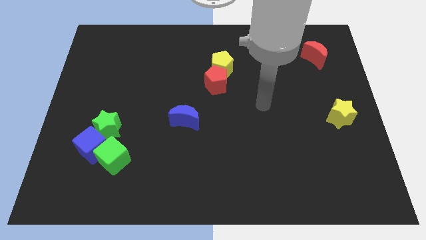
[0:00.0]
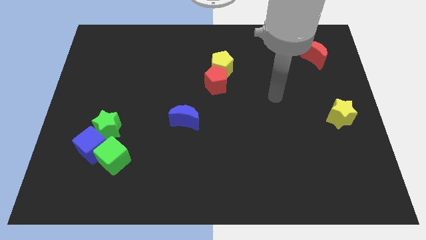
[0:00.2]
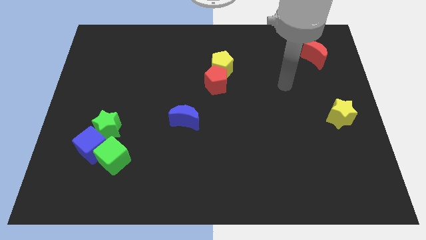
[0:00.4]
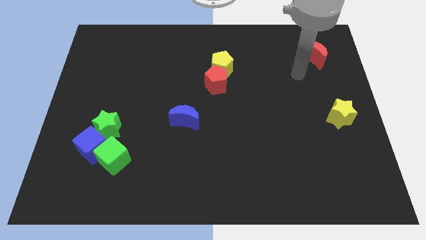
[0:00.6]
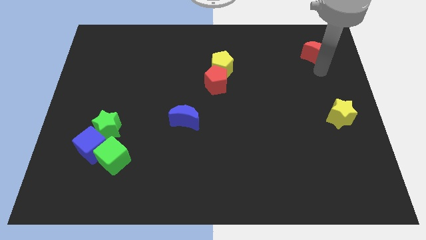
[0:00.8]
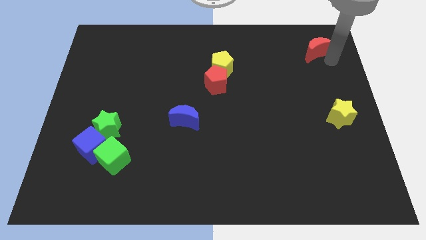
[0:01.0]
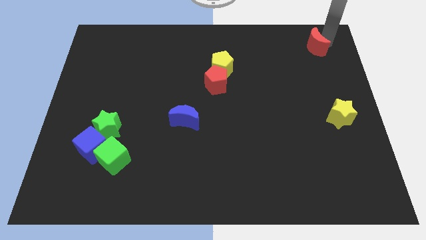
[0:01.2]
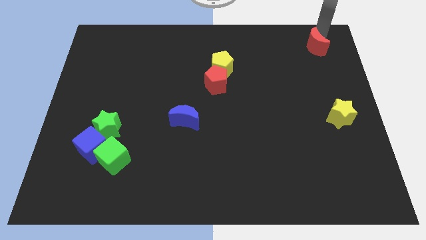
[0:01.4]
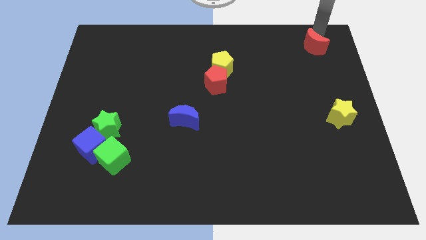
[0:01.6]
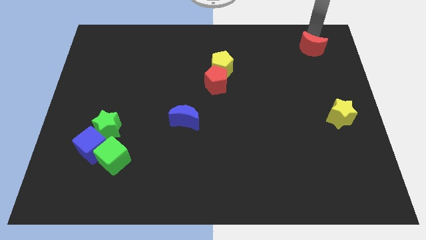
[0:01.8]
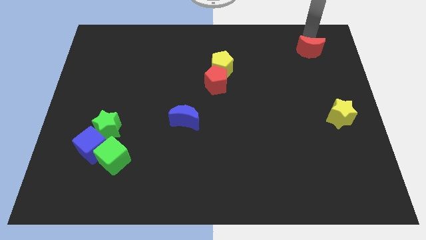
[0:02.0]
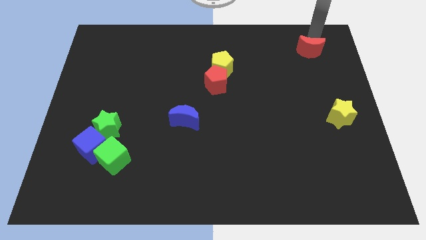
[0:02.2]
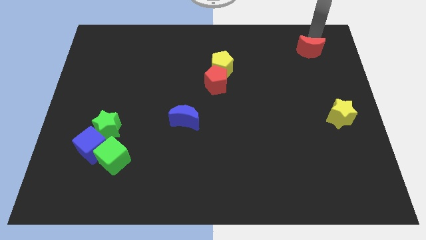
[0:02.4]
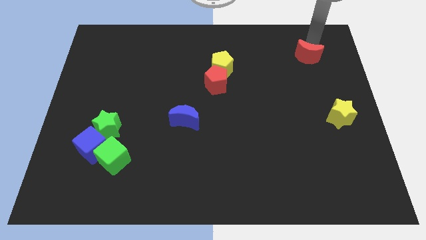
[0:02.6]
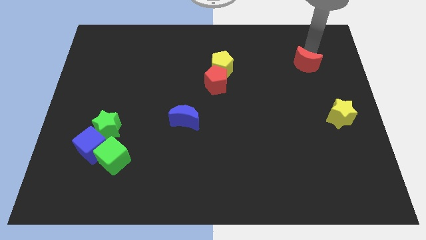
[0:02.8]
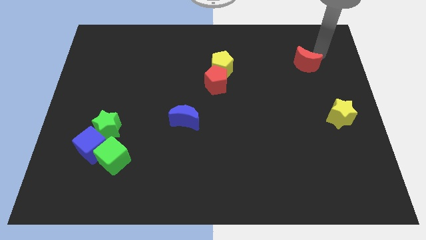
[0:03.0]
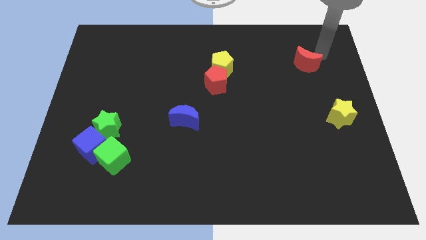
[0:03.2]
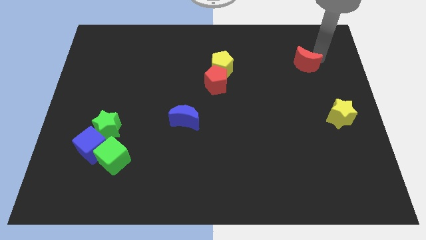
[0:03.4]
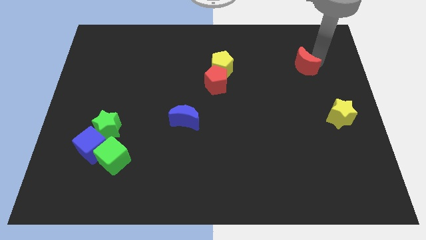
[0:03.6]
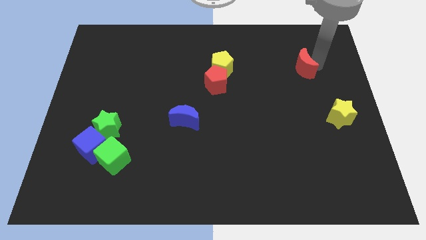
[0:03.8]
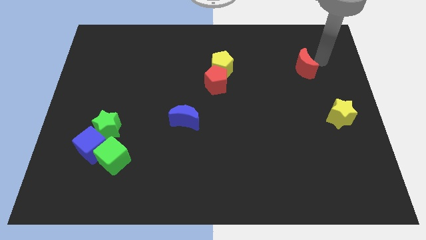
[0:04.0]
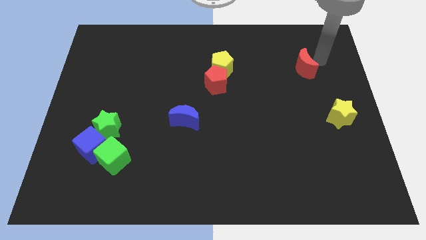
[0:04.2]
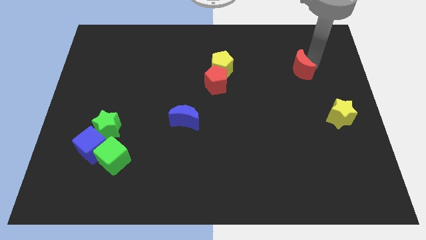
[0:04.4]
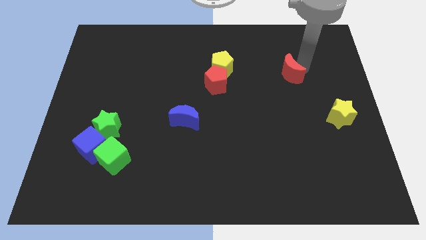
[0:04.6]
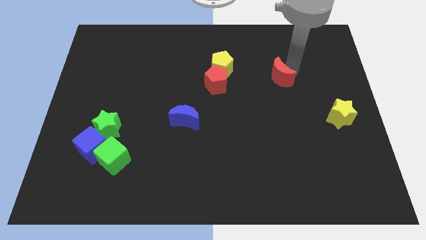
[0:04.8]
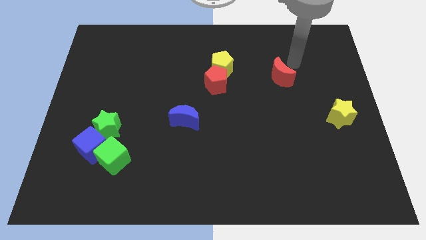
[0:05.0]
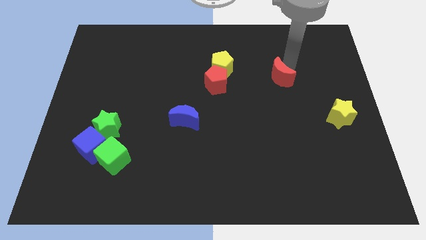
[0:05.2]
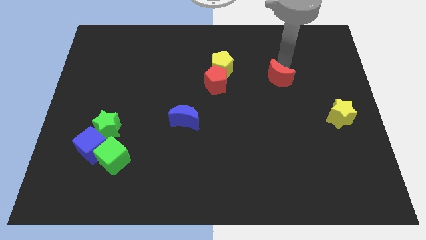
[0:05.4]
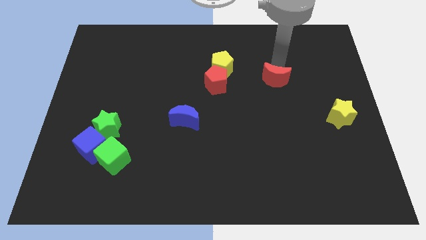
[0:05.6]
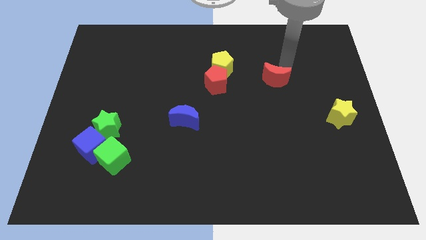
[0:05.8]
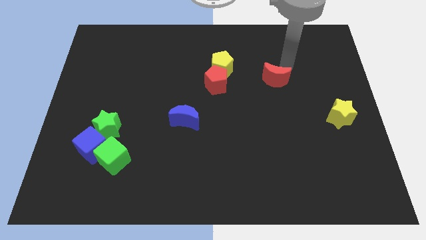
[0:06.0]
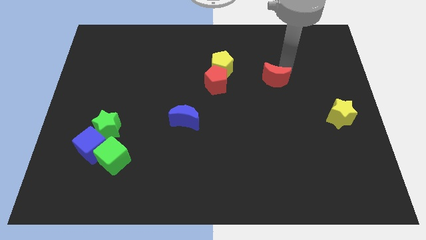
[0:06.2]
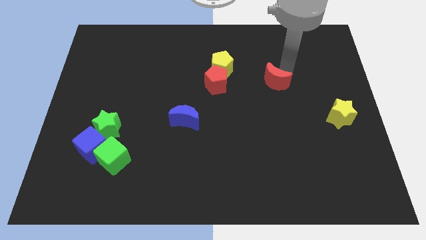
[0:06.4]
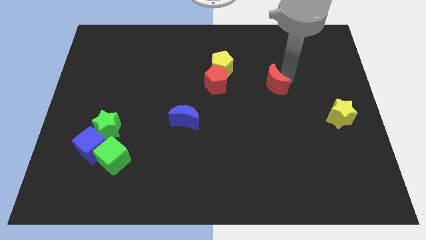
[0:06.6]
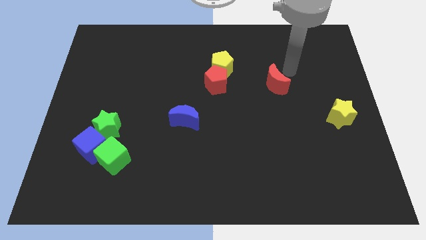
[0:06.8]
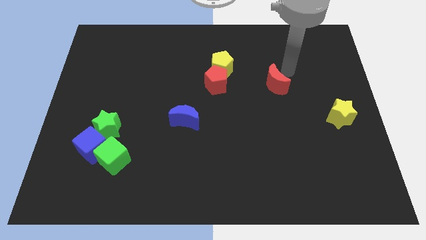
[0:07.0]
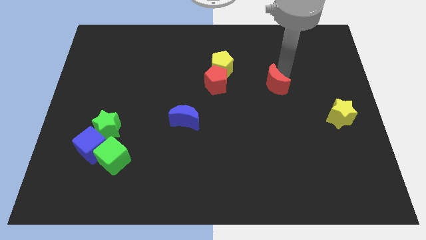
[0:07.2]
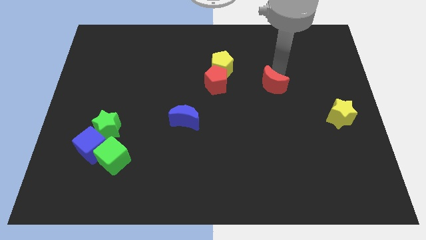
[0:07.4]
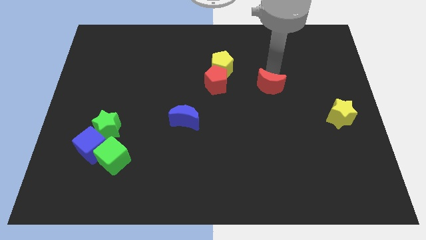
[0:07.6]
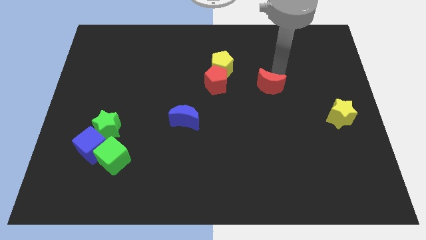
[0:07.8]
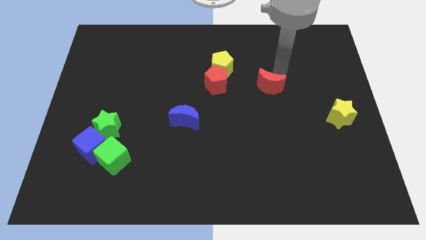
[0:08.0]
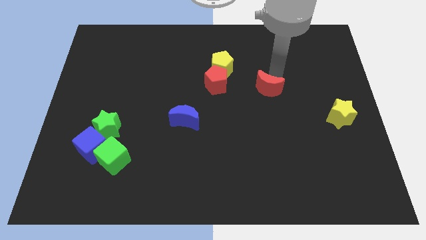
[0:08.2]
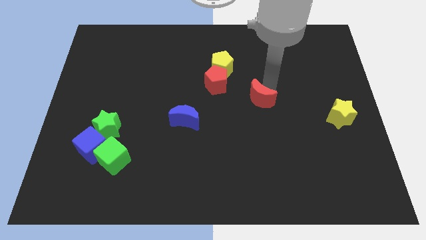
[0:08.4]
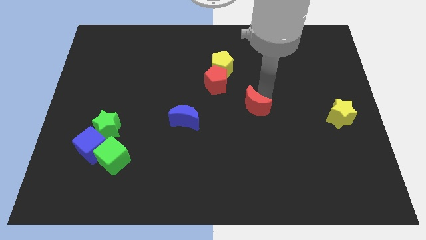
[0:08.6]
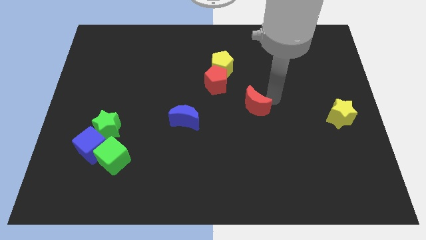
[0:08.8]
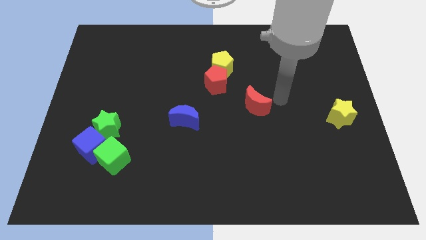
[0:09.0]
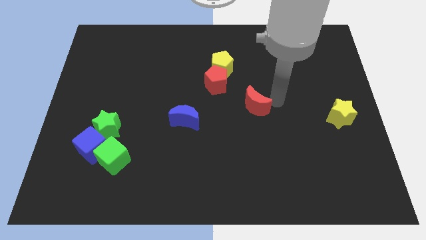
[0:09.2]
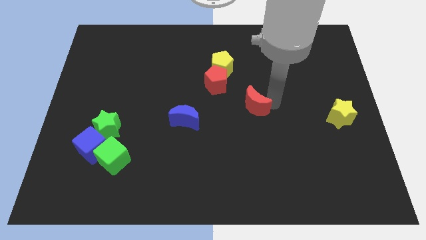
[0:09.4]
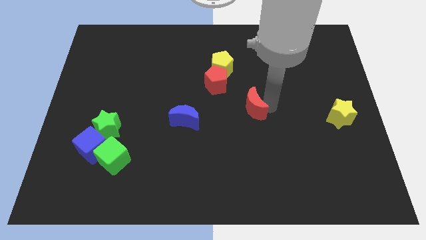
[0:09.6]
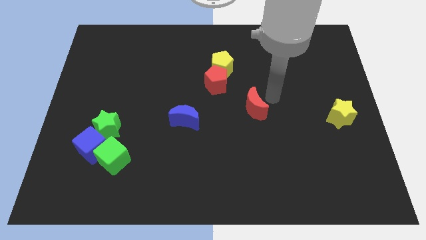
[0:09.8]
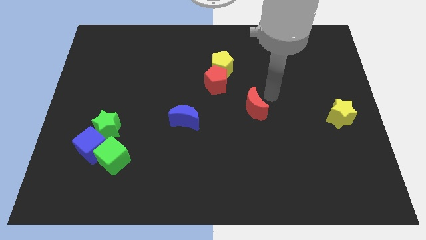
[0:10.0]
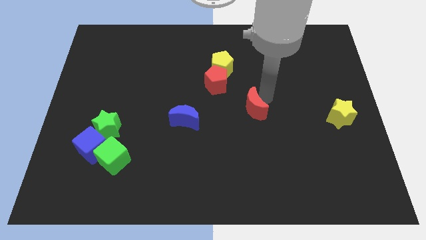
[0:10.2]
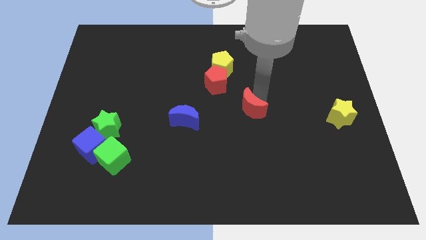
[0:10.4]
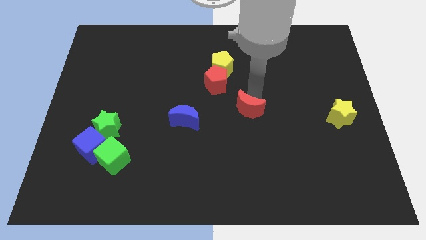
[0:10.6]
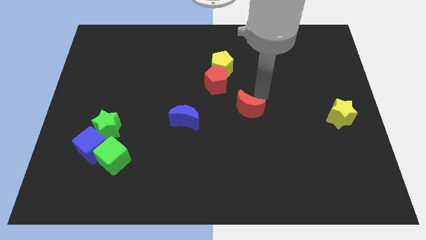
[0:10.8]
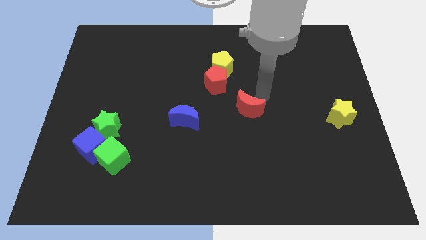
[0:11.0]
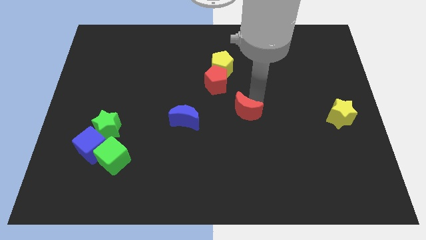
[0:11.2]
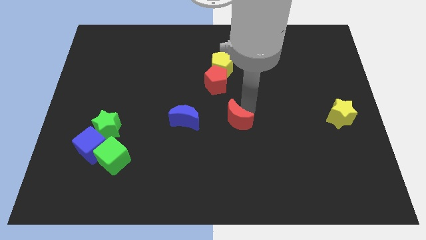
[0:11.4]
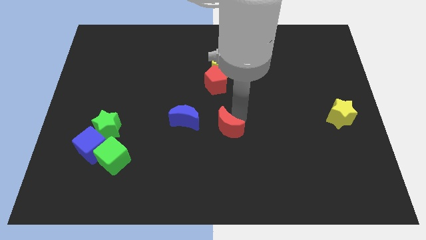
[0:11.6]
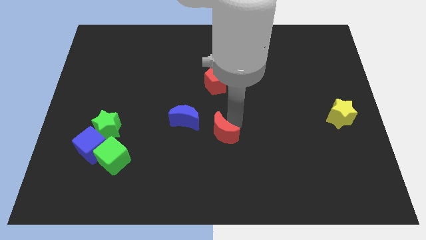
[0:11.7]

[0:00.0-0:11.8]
slide the red moon to the bottom right side of the blue moon
